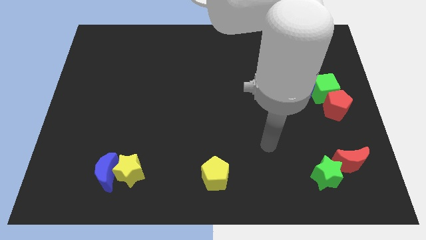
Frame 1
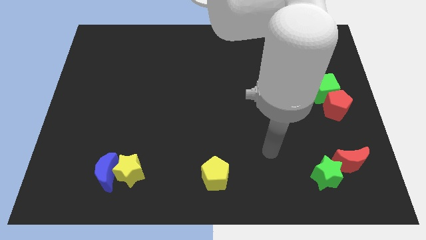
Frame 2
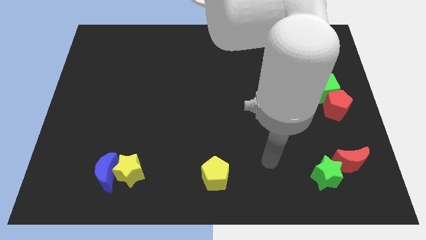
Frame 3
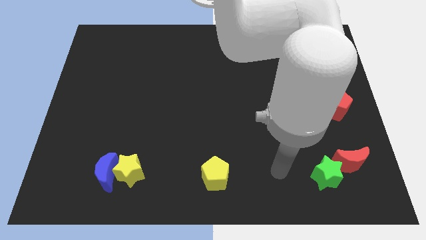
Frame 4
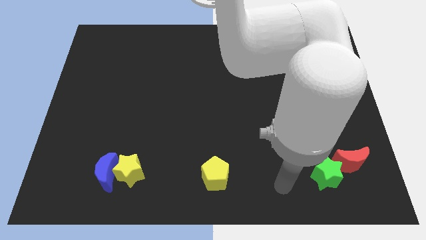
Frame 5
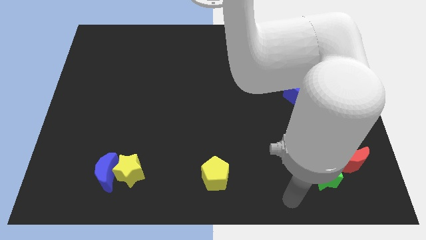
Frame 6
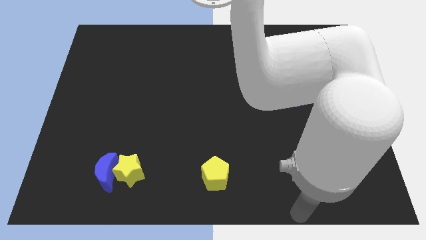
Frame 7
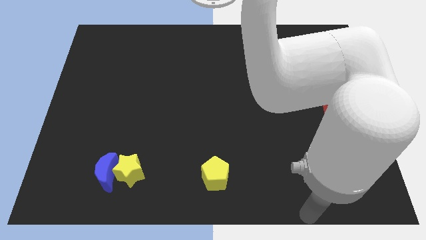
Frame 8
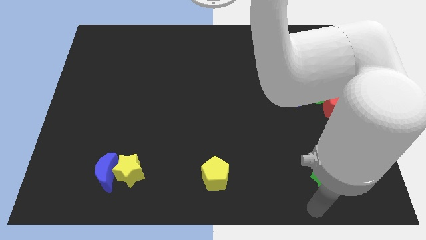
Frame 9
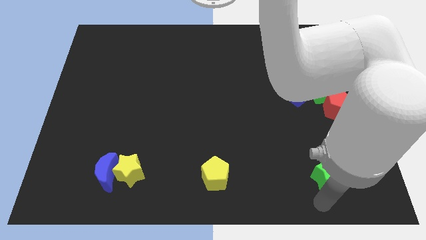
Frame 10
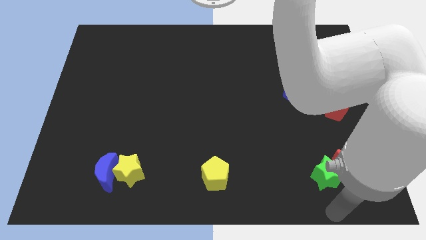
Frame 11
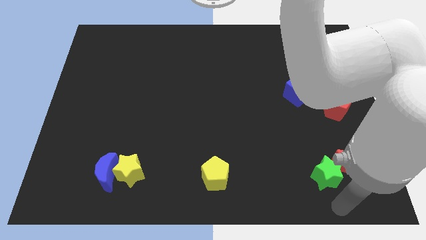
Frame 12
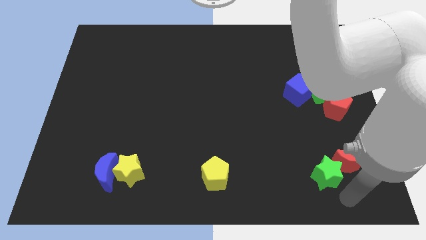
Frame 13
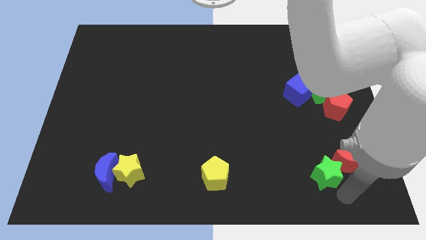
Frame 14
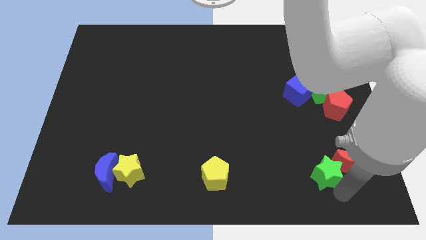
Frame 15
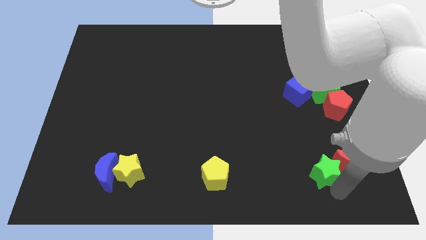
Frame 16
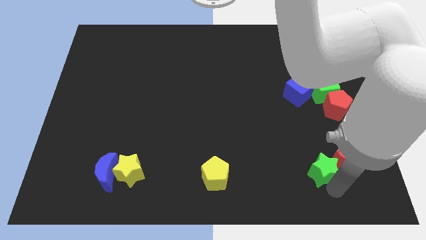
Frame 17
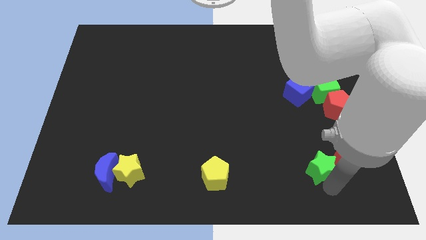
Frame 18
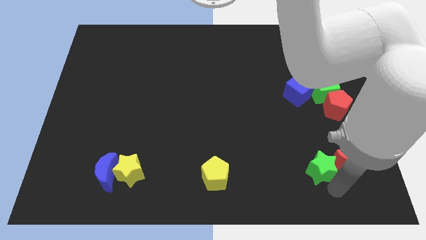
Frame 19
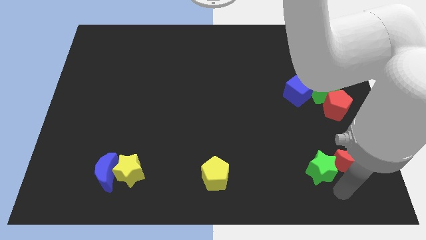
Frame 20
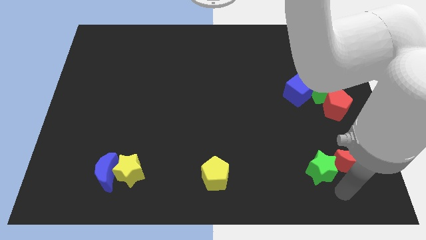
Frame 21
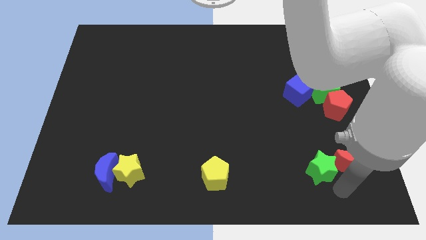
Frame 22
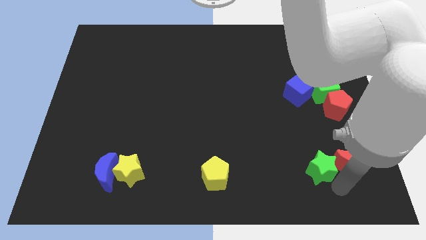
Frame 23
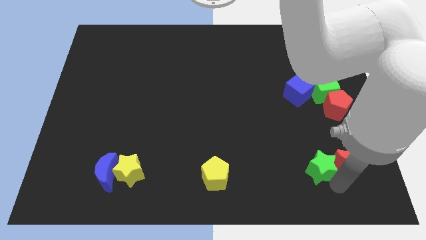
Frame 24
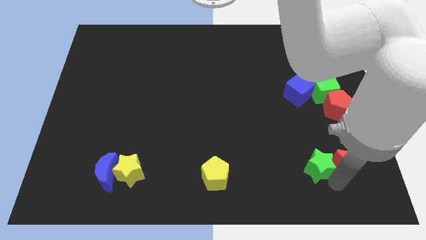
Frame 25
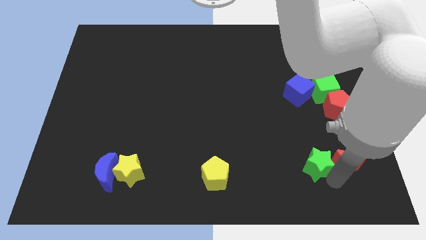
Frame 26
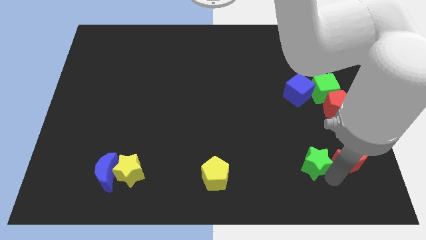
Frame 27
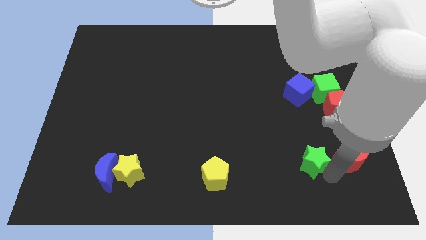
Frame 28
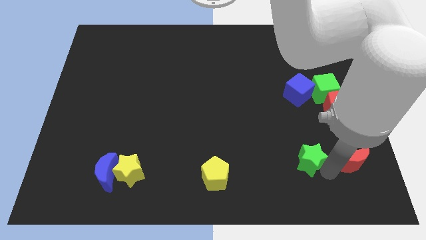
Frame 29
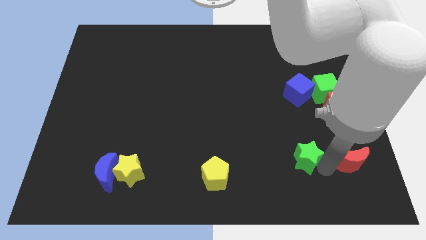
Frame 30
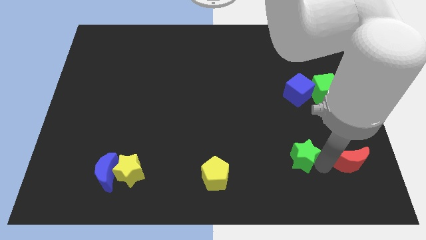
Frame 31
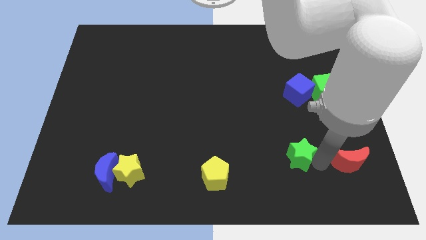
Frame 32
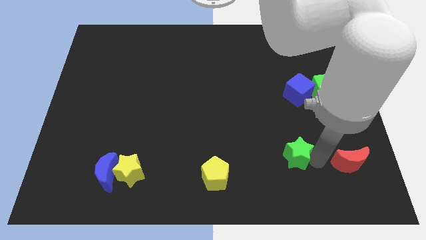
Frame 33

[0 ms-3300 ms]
slightly push the green star up and to the left

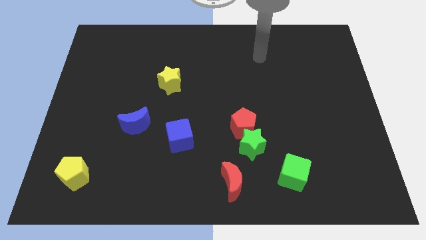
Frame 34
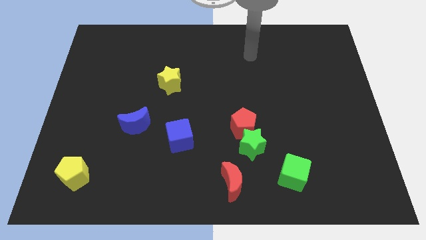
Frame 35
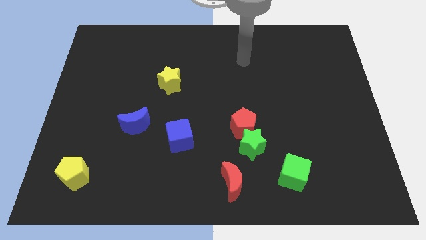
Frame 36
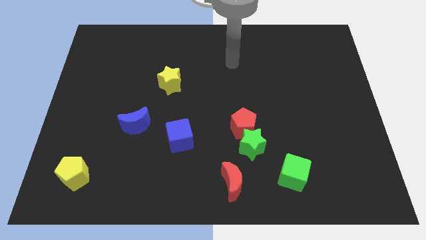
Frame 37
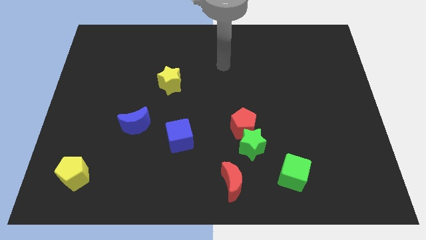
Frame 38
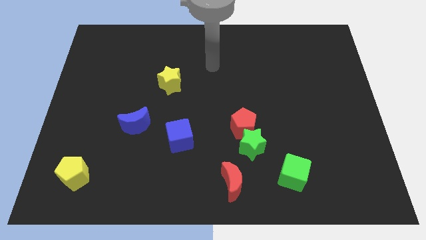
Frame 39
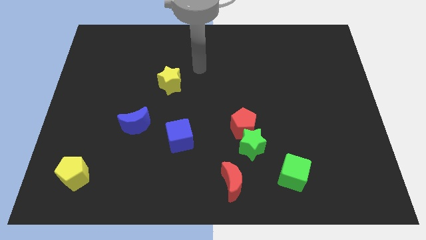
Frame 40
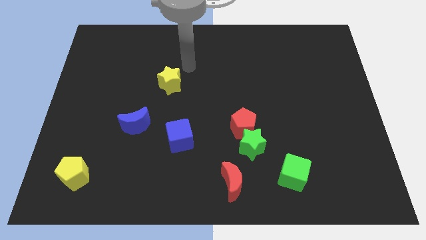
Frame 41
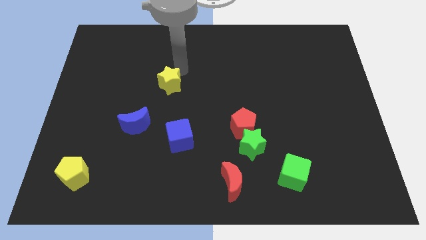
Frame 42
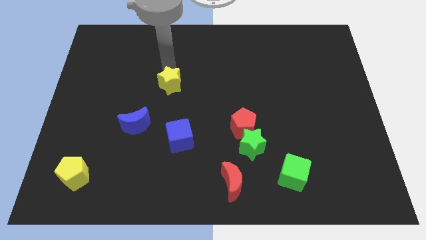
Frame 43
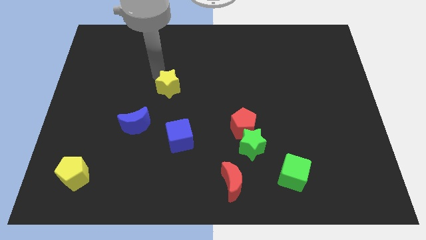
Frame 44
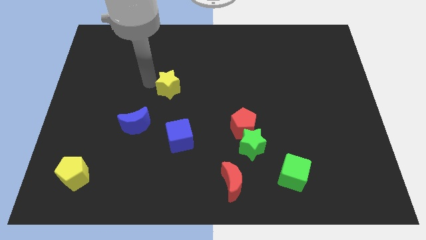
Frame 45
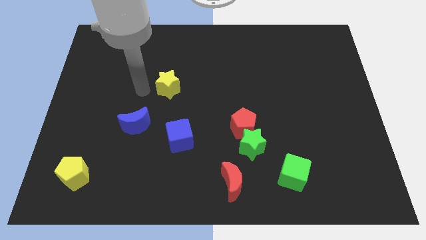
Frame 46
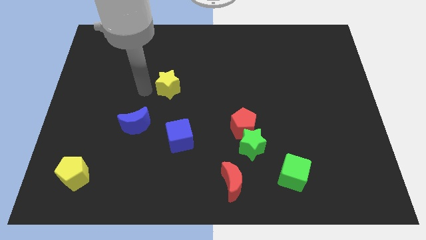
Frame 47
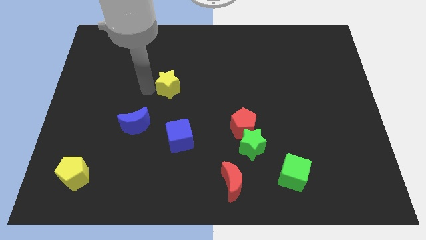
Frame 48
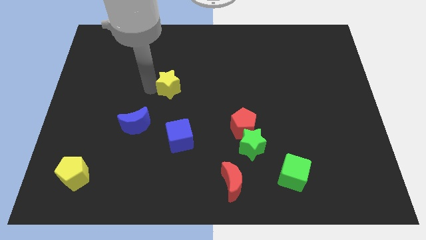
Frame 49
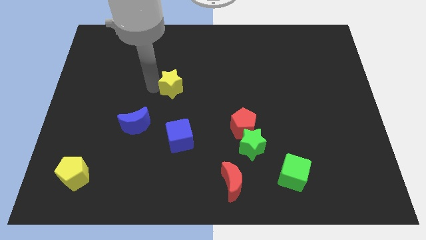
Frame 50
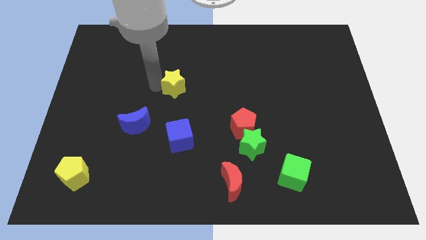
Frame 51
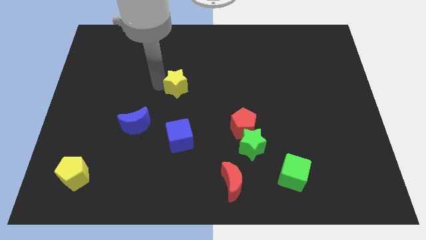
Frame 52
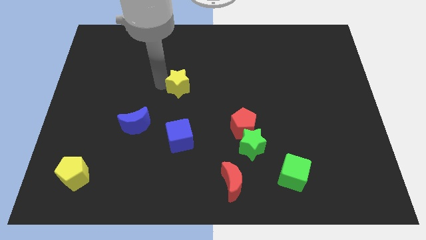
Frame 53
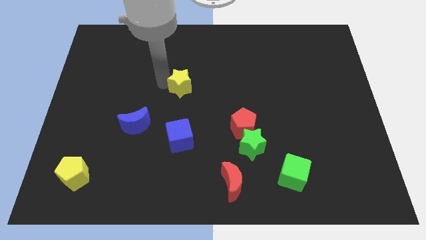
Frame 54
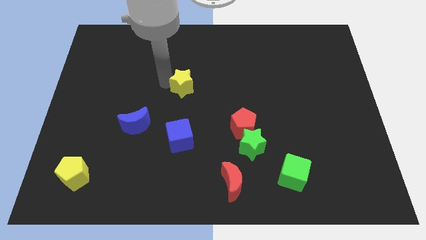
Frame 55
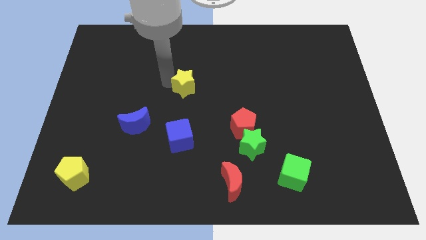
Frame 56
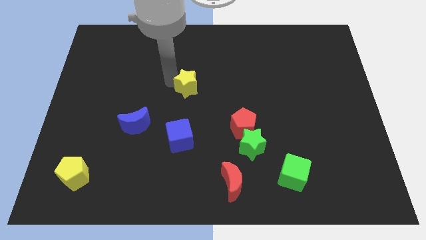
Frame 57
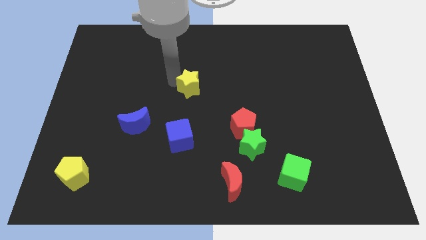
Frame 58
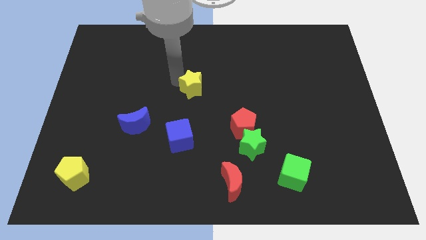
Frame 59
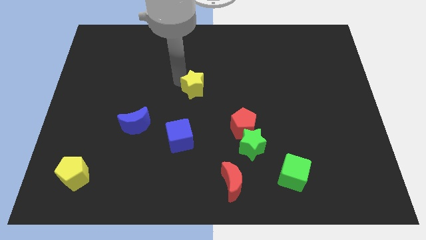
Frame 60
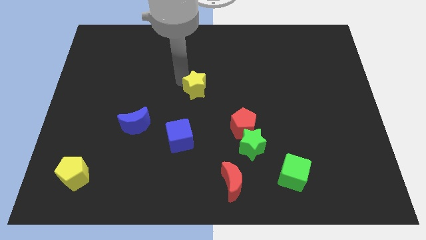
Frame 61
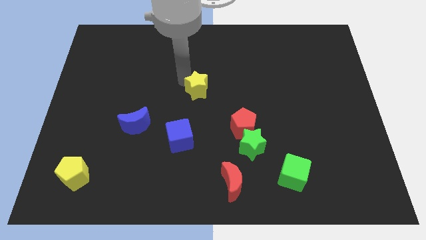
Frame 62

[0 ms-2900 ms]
slightly slide the yellow star right

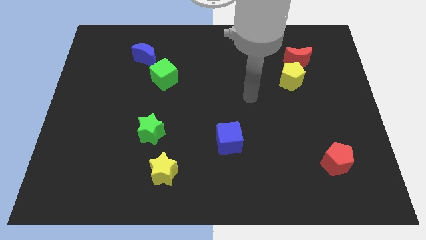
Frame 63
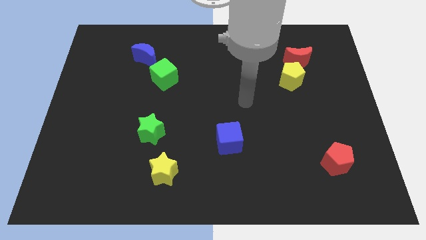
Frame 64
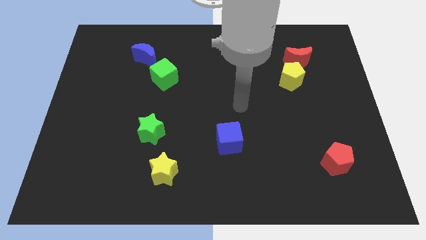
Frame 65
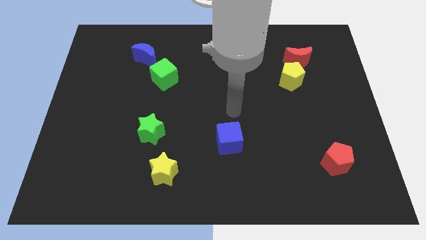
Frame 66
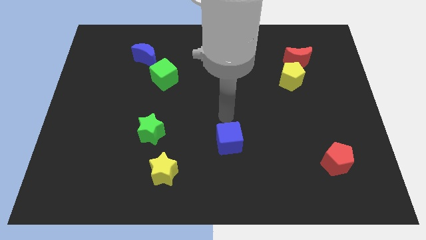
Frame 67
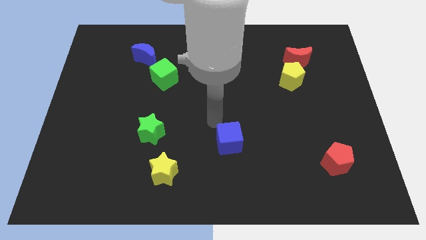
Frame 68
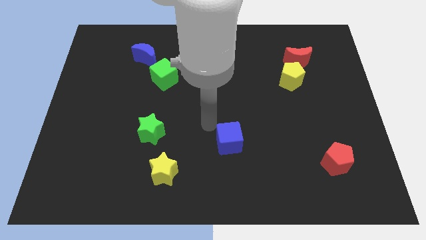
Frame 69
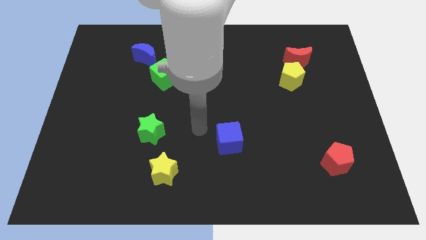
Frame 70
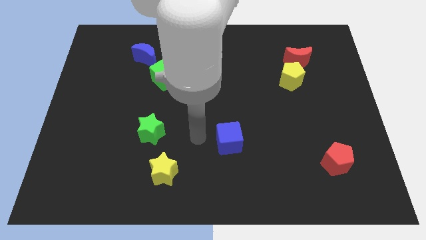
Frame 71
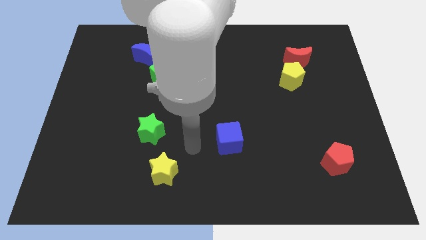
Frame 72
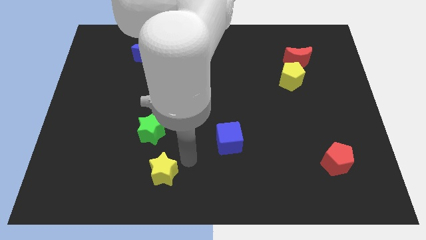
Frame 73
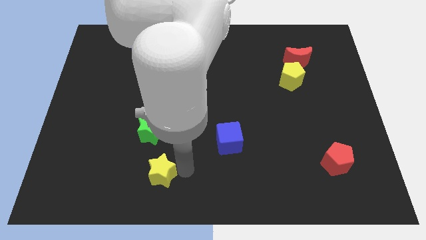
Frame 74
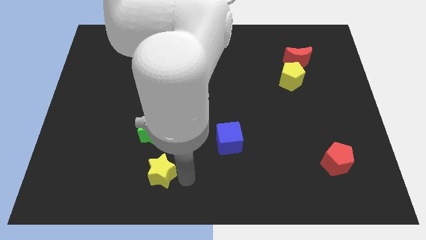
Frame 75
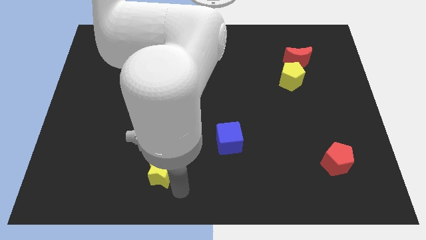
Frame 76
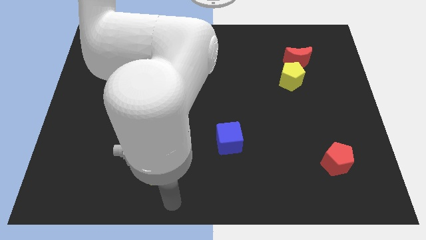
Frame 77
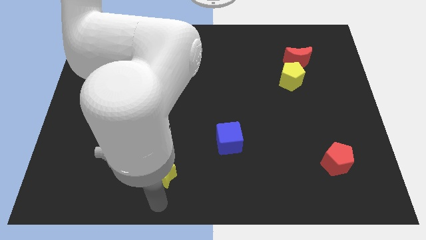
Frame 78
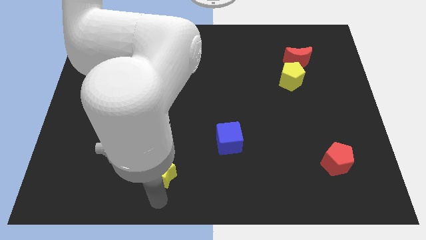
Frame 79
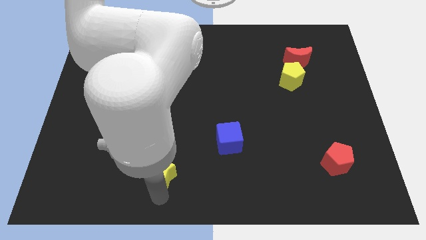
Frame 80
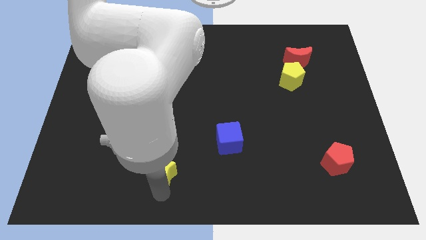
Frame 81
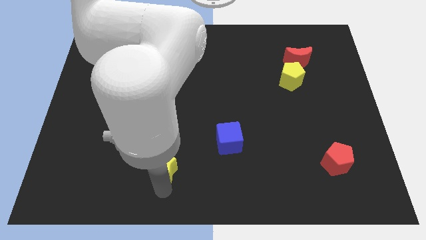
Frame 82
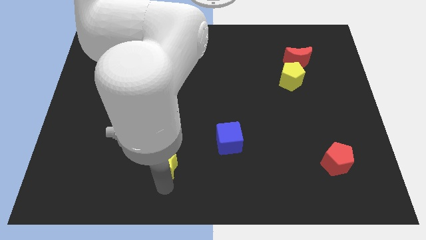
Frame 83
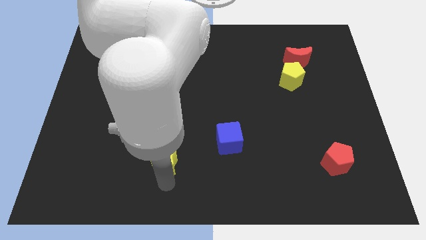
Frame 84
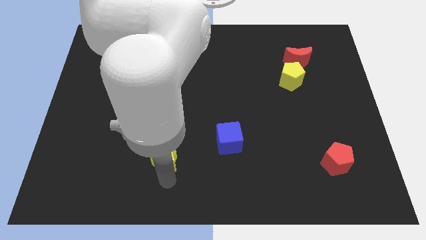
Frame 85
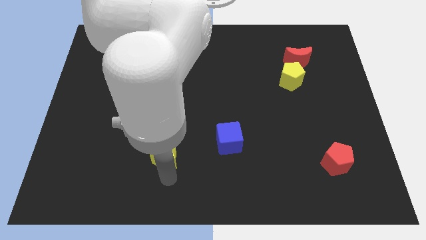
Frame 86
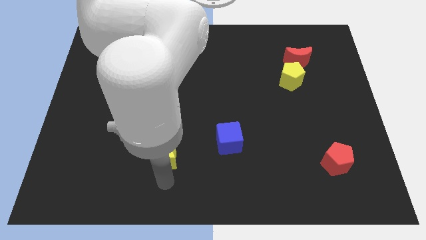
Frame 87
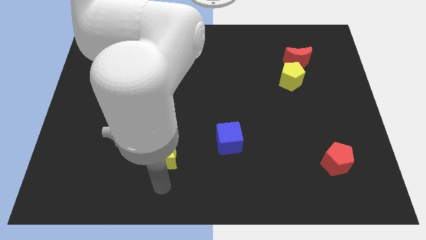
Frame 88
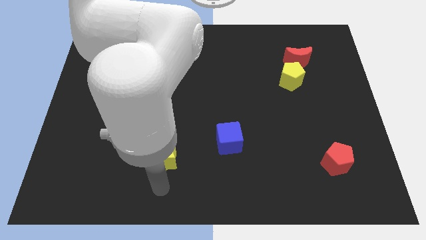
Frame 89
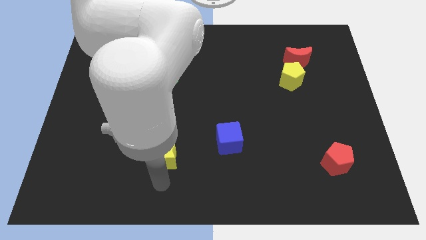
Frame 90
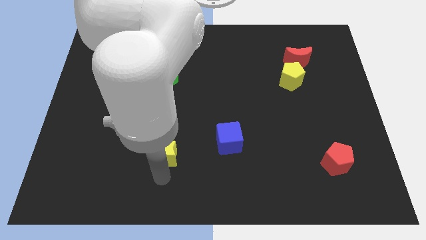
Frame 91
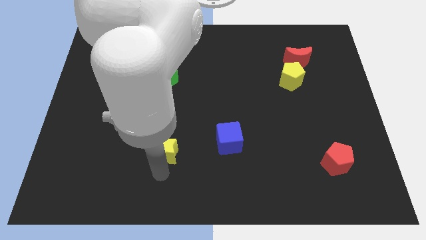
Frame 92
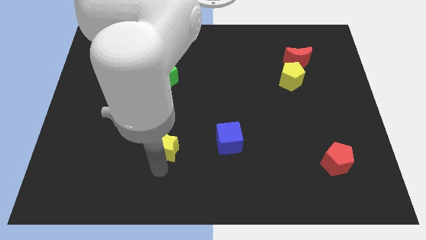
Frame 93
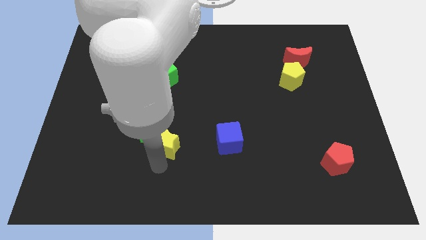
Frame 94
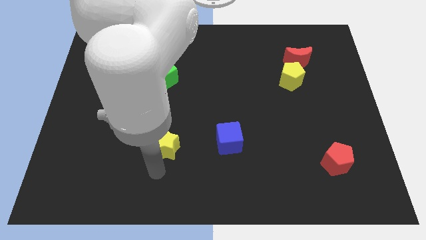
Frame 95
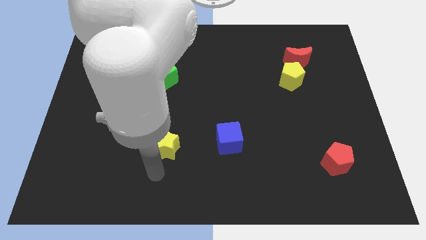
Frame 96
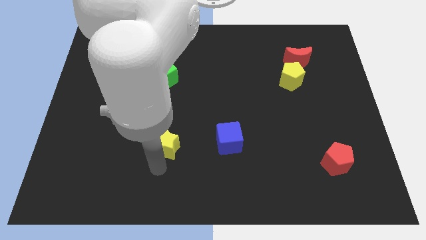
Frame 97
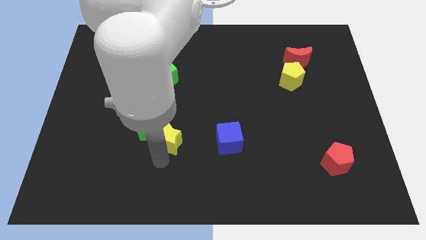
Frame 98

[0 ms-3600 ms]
move the yellow star upwards somewhat
